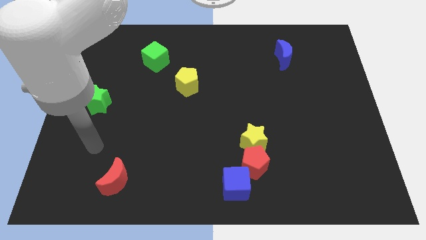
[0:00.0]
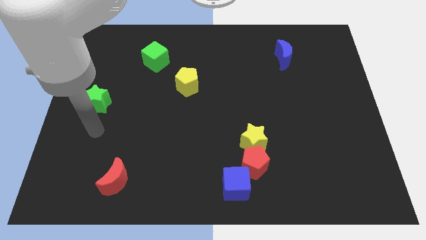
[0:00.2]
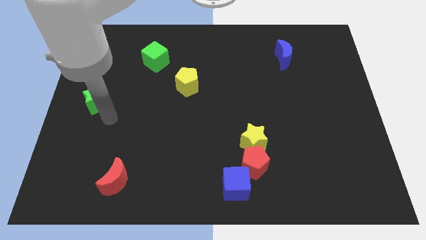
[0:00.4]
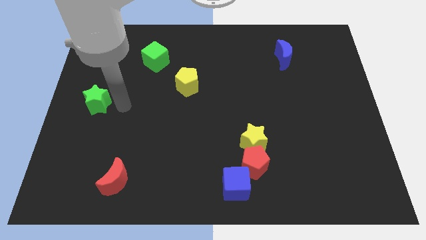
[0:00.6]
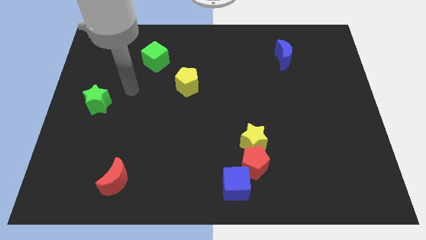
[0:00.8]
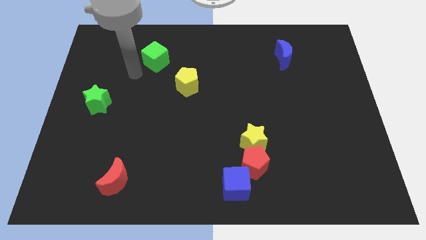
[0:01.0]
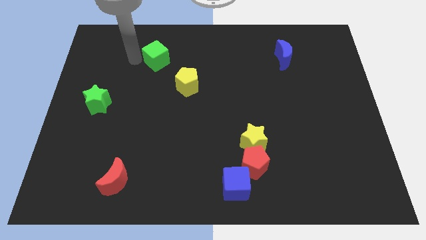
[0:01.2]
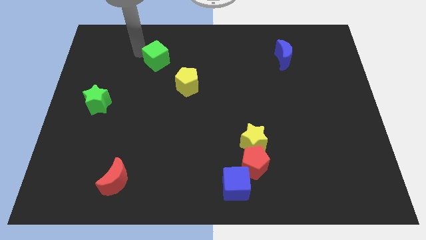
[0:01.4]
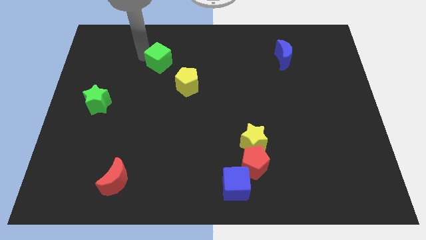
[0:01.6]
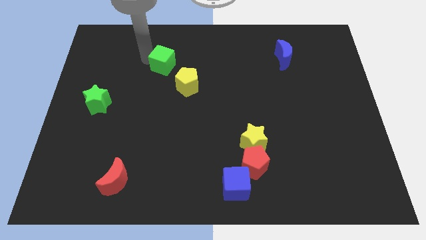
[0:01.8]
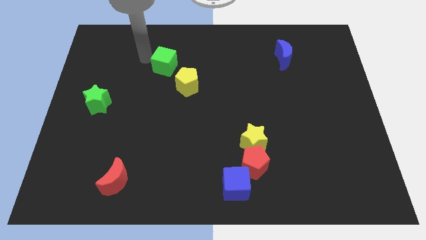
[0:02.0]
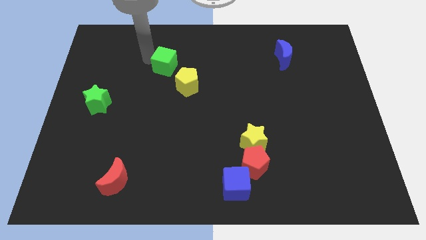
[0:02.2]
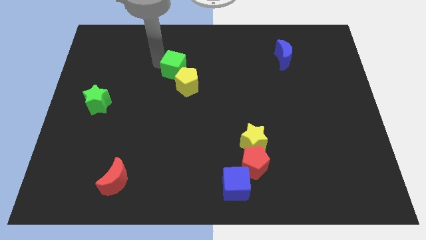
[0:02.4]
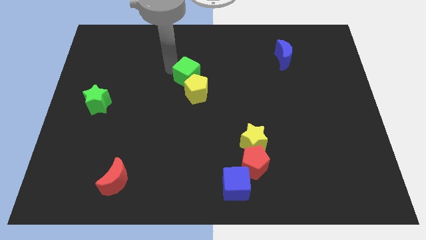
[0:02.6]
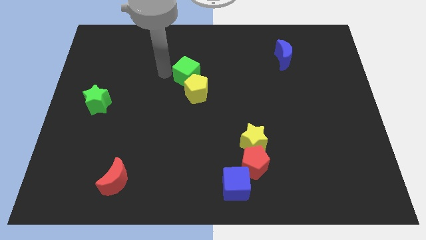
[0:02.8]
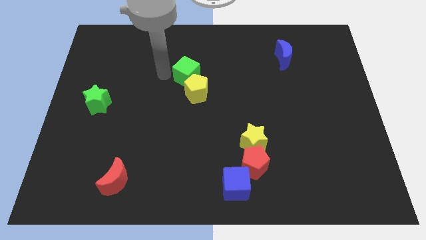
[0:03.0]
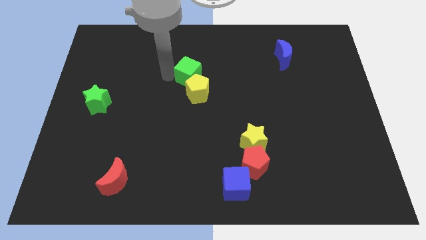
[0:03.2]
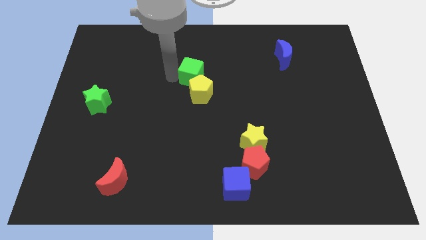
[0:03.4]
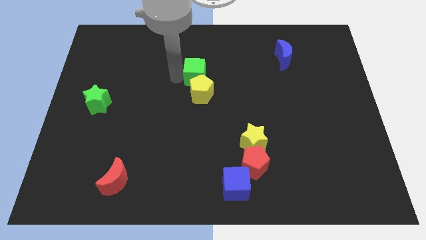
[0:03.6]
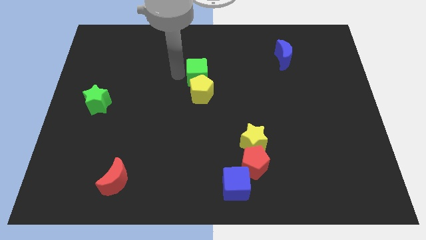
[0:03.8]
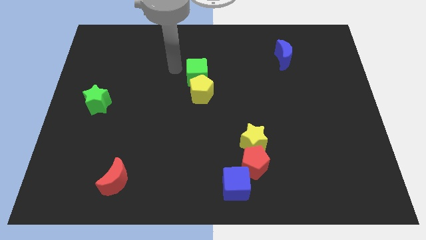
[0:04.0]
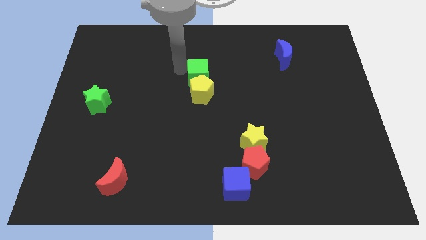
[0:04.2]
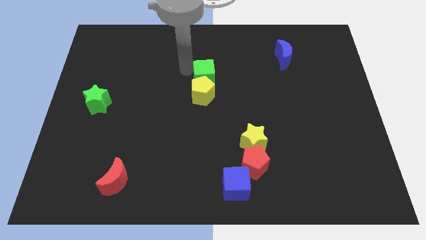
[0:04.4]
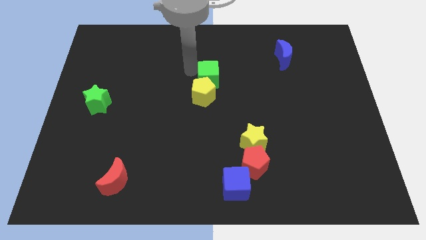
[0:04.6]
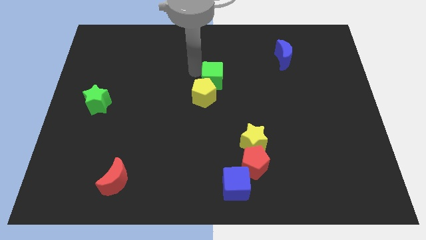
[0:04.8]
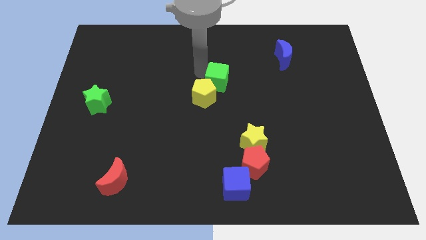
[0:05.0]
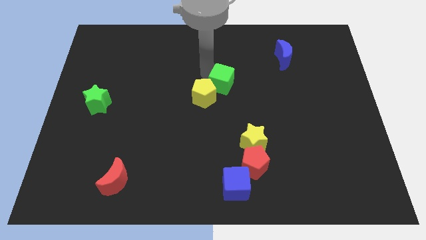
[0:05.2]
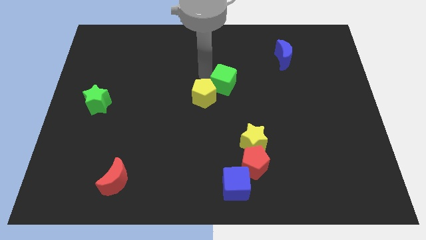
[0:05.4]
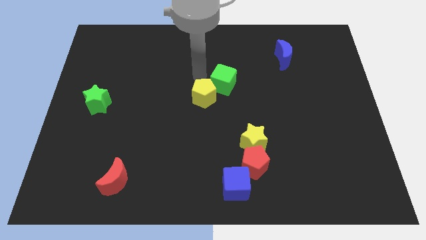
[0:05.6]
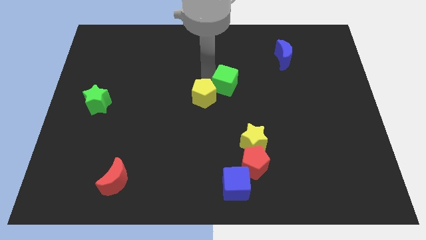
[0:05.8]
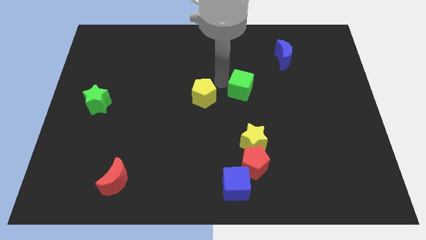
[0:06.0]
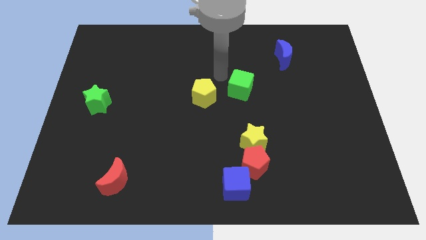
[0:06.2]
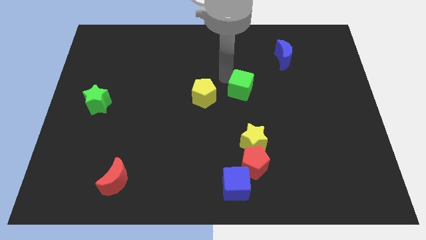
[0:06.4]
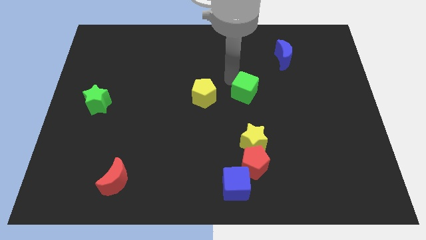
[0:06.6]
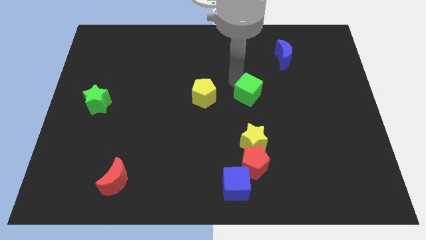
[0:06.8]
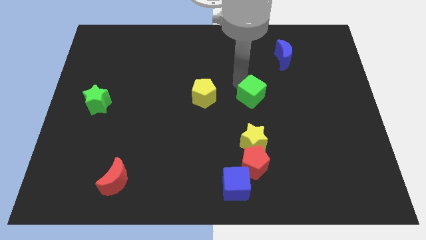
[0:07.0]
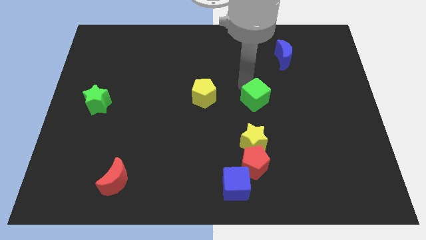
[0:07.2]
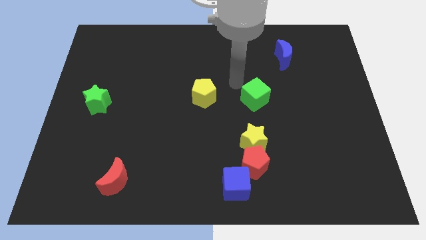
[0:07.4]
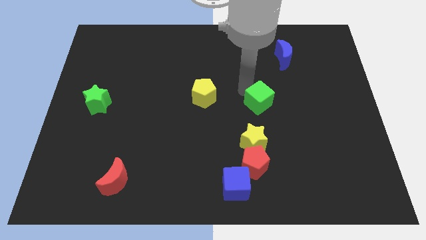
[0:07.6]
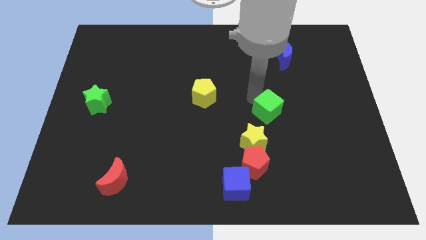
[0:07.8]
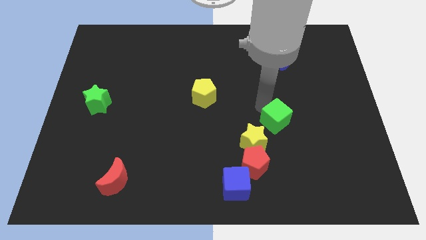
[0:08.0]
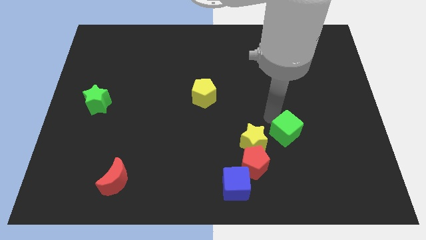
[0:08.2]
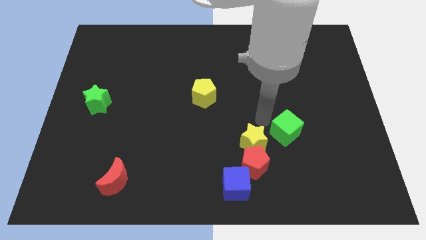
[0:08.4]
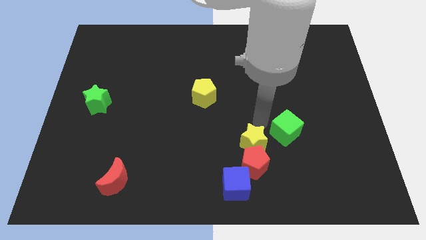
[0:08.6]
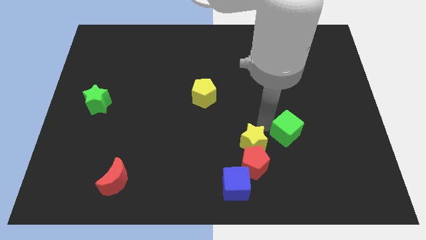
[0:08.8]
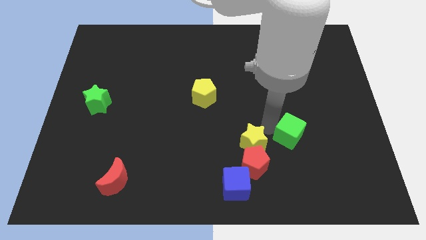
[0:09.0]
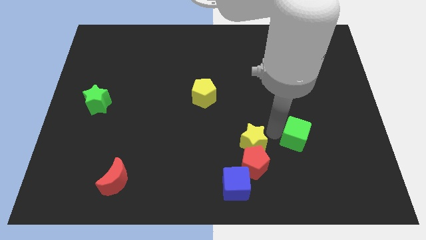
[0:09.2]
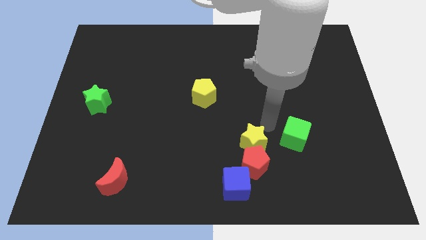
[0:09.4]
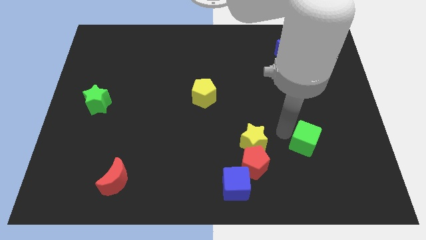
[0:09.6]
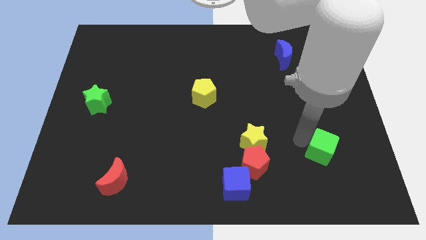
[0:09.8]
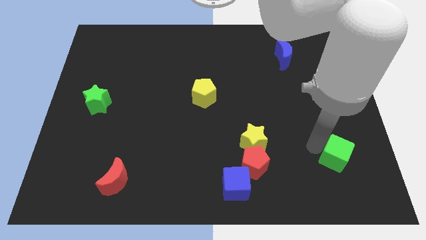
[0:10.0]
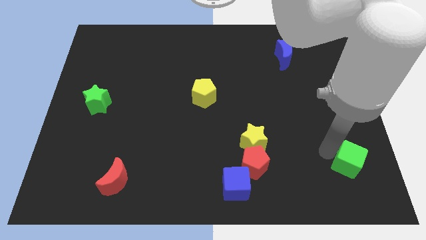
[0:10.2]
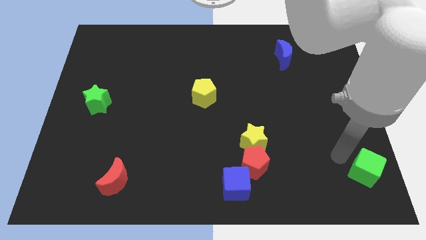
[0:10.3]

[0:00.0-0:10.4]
put the green cube to the lower right corner

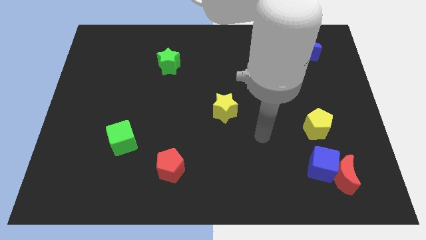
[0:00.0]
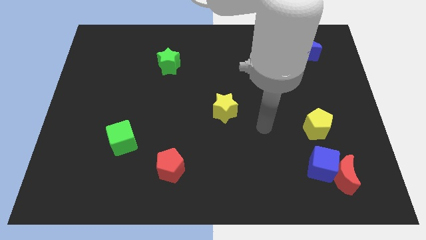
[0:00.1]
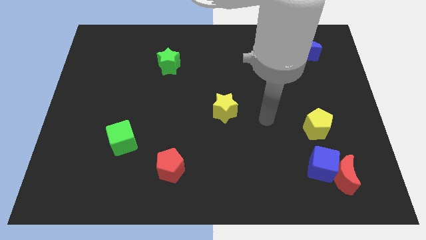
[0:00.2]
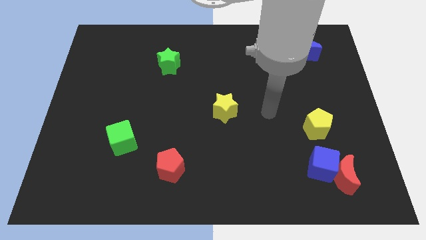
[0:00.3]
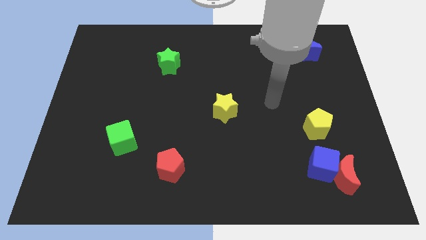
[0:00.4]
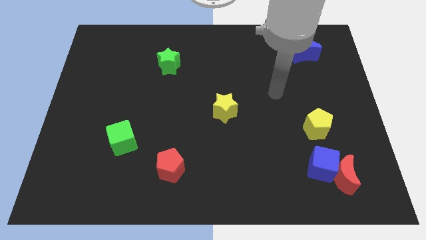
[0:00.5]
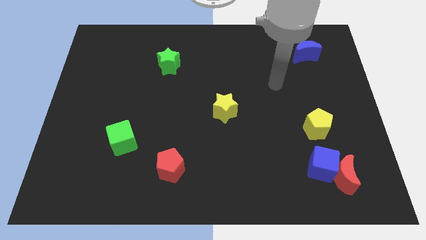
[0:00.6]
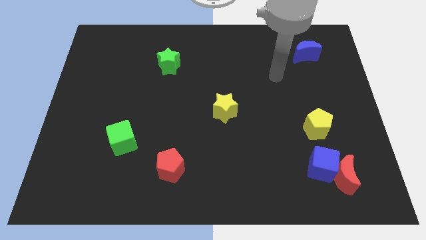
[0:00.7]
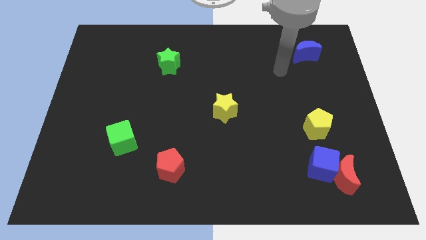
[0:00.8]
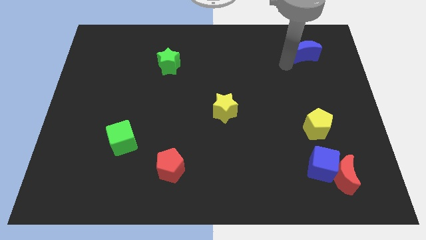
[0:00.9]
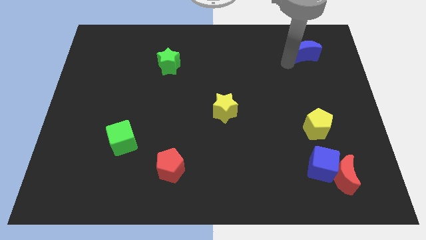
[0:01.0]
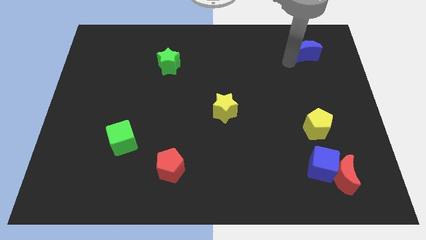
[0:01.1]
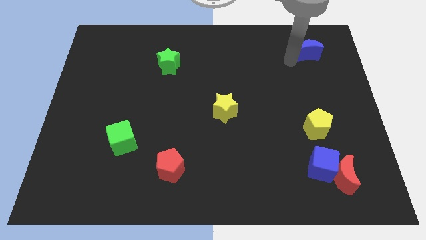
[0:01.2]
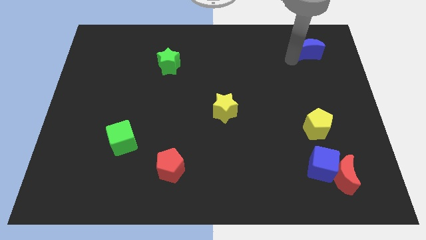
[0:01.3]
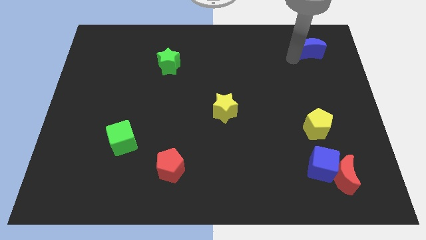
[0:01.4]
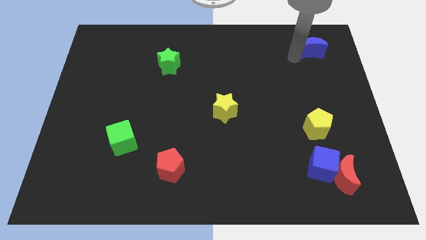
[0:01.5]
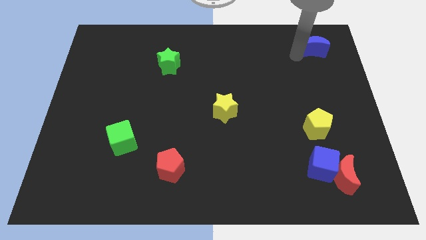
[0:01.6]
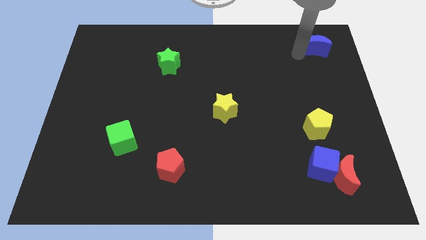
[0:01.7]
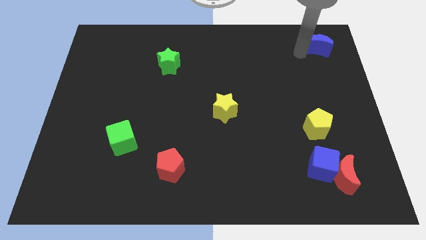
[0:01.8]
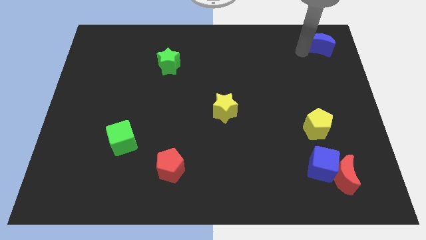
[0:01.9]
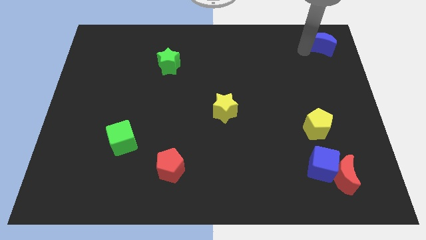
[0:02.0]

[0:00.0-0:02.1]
put the blue moon to the top right
